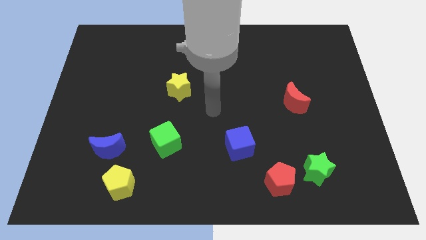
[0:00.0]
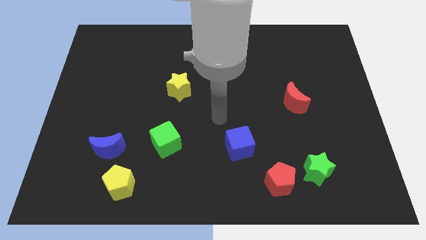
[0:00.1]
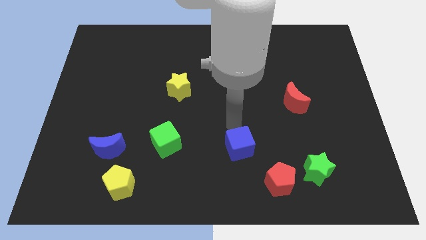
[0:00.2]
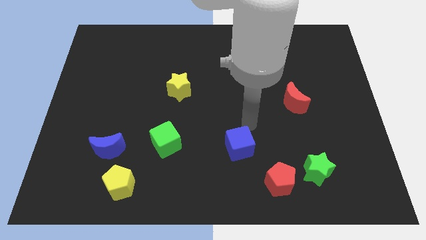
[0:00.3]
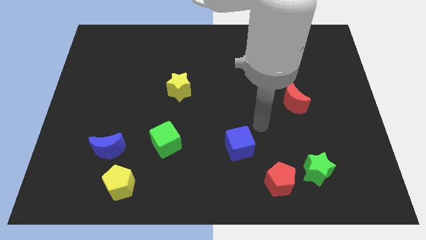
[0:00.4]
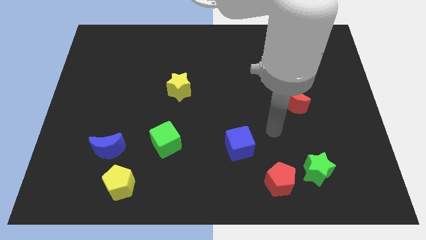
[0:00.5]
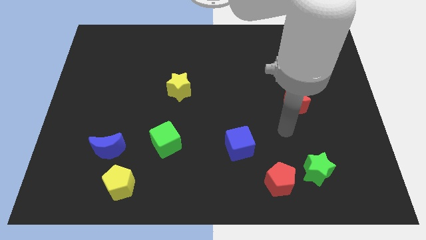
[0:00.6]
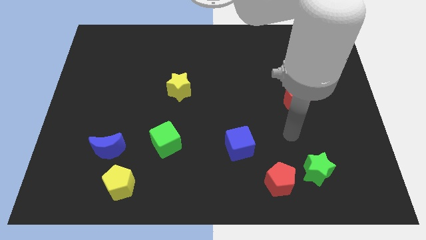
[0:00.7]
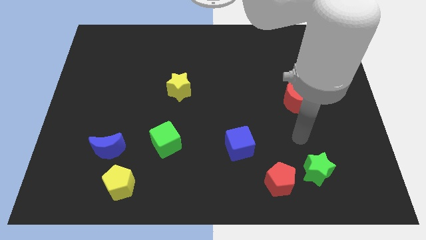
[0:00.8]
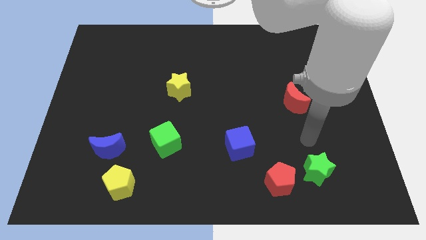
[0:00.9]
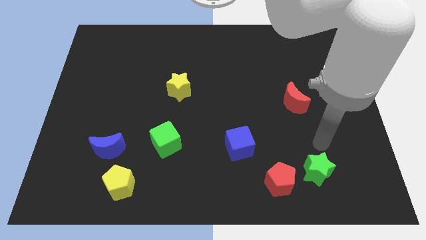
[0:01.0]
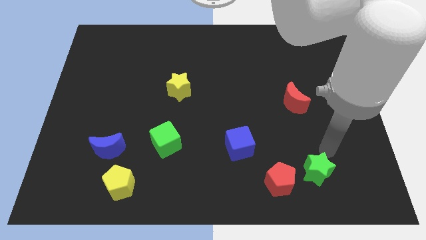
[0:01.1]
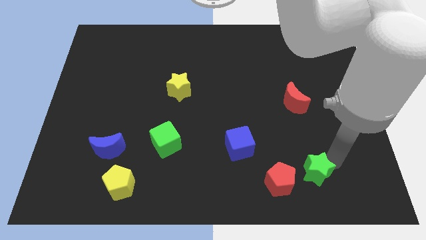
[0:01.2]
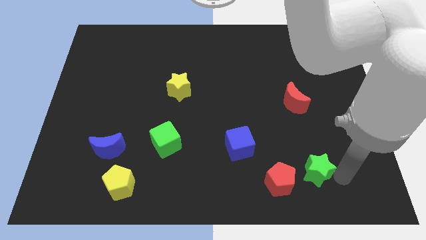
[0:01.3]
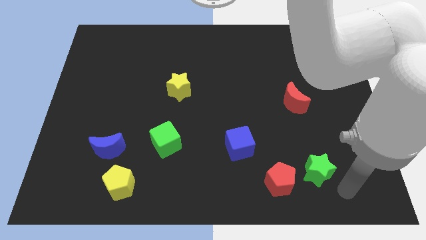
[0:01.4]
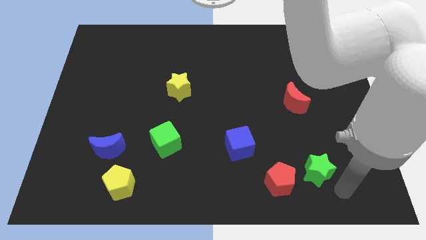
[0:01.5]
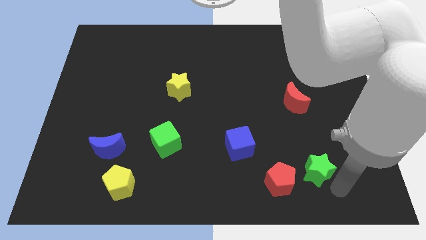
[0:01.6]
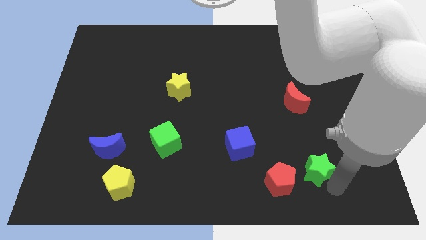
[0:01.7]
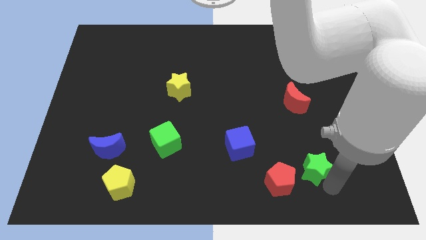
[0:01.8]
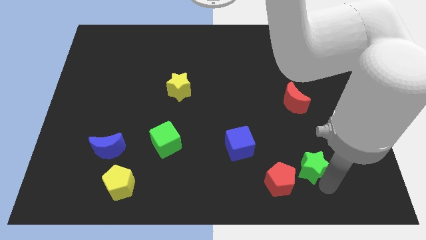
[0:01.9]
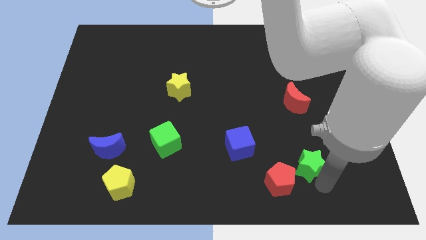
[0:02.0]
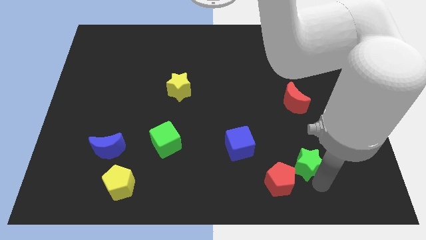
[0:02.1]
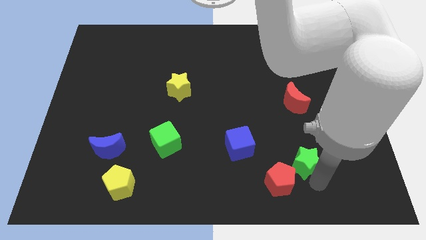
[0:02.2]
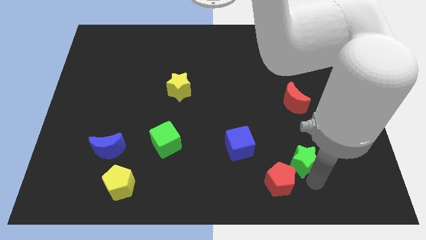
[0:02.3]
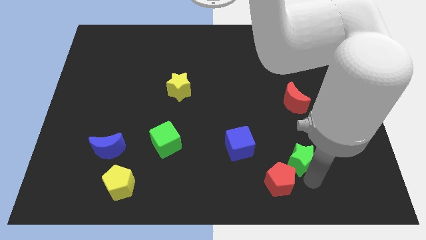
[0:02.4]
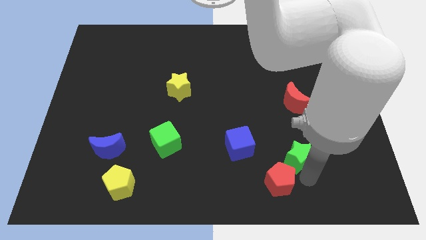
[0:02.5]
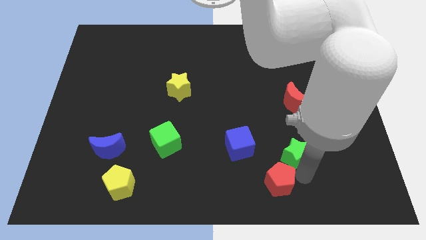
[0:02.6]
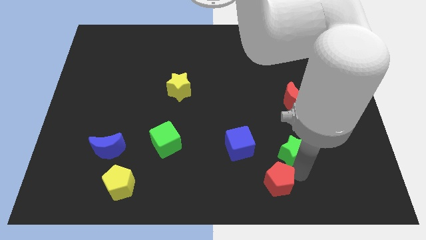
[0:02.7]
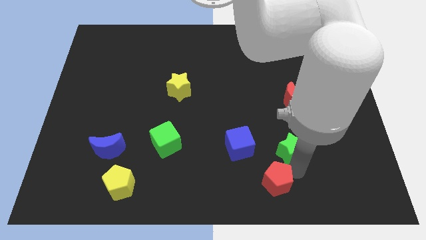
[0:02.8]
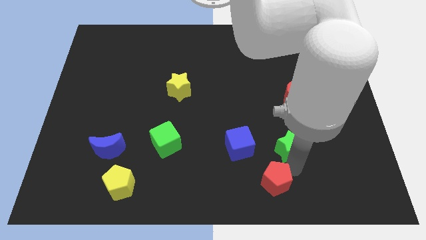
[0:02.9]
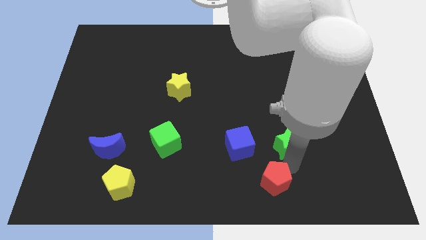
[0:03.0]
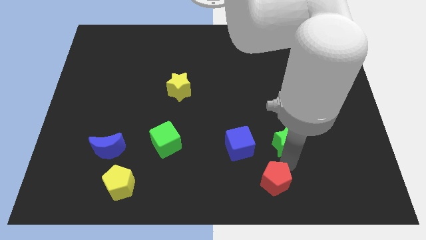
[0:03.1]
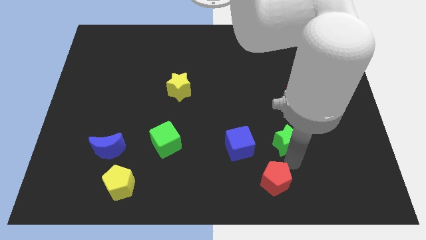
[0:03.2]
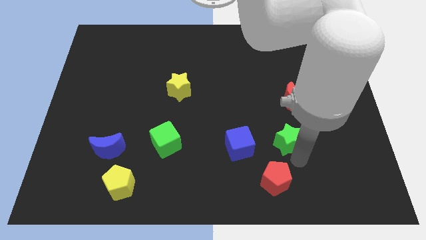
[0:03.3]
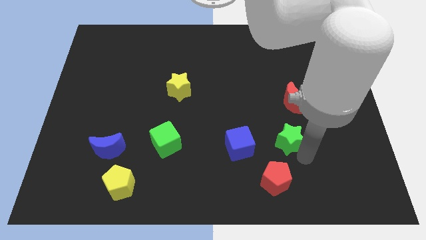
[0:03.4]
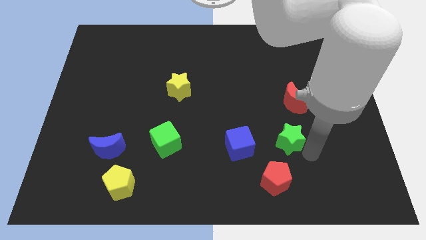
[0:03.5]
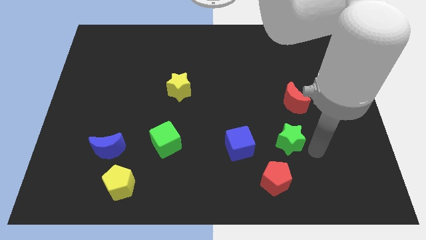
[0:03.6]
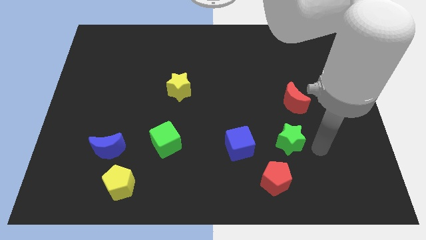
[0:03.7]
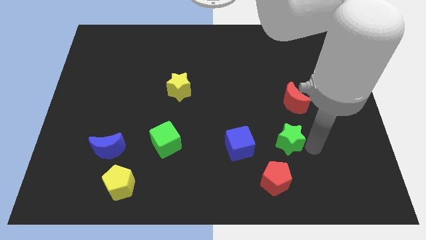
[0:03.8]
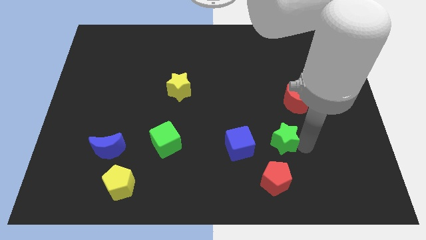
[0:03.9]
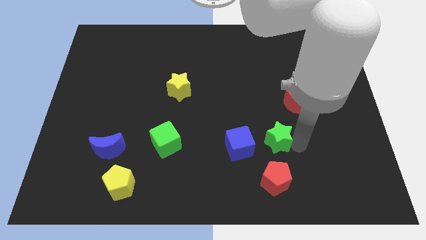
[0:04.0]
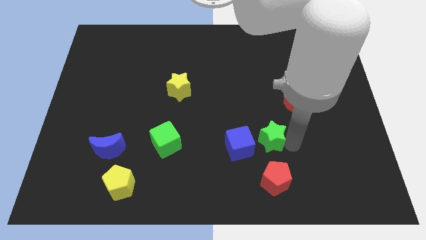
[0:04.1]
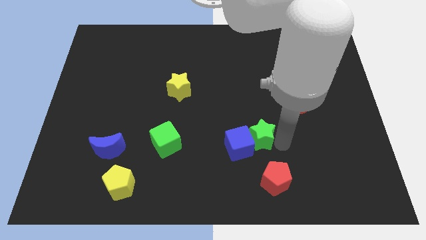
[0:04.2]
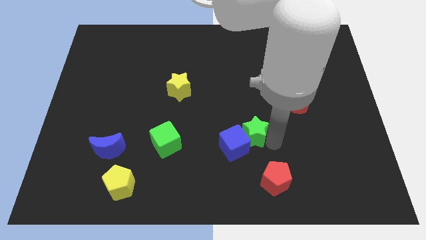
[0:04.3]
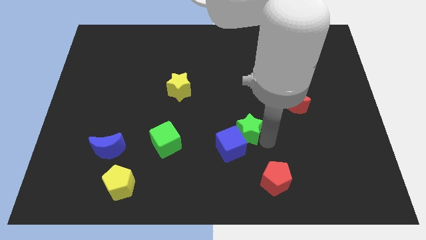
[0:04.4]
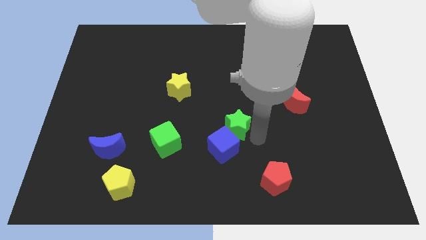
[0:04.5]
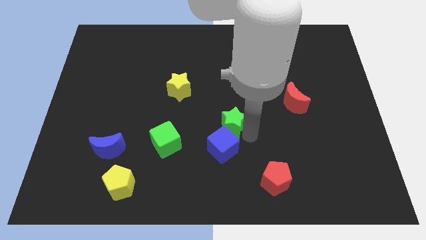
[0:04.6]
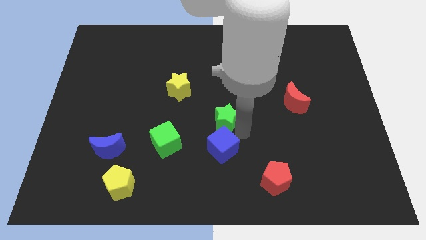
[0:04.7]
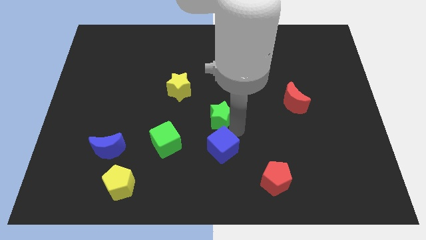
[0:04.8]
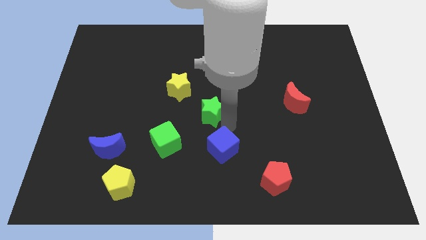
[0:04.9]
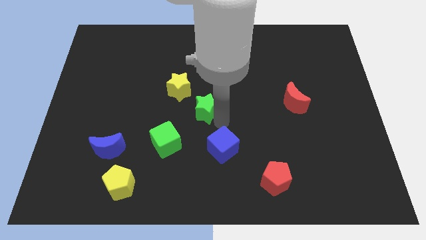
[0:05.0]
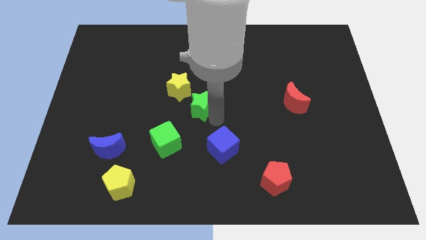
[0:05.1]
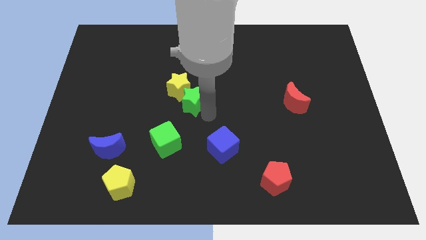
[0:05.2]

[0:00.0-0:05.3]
move the green star next to the yellow star

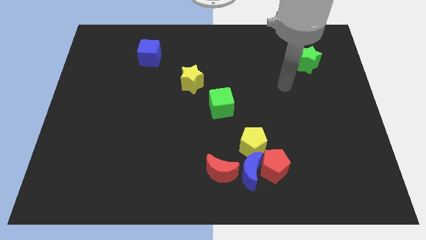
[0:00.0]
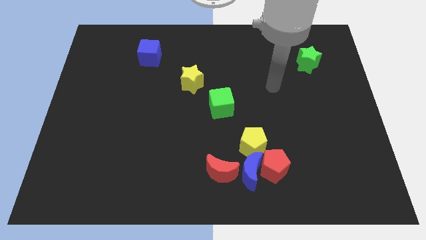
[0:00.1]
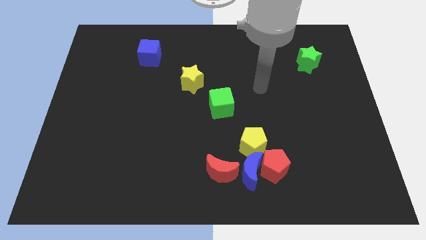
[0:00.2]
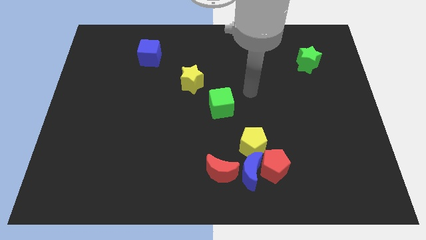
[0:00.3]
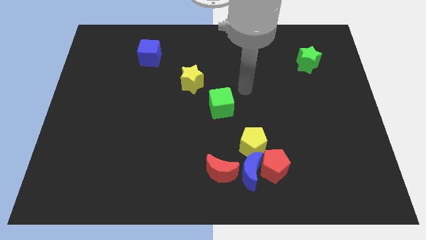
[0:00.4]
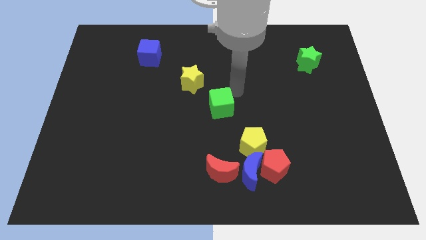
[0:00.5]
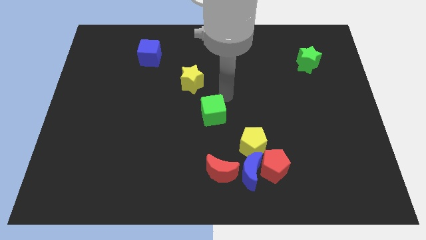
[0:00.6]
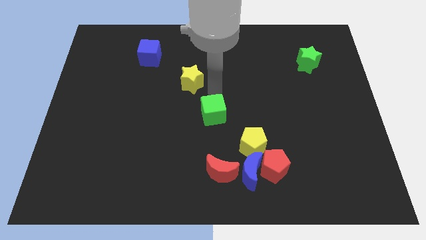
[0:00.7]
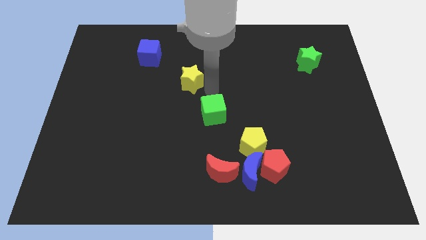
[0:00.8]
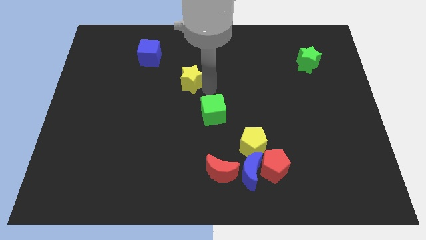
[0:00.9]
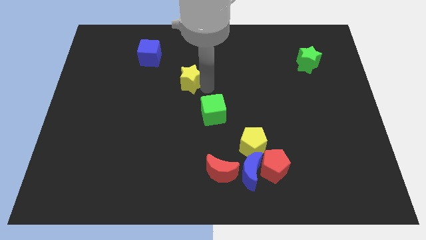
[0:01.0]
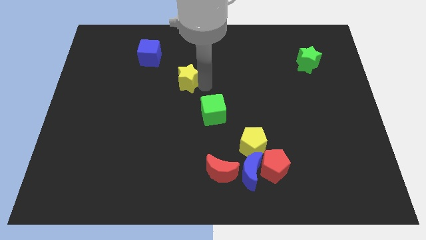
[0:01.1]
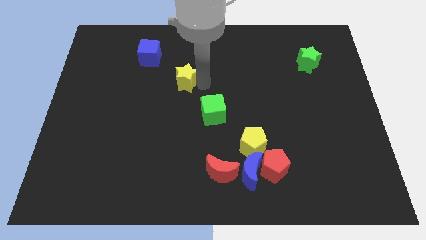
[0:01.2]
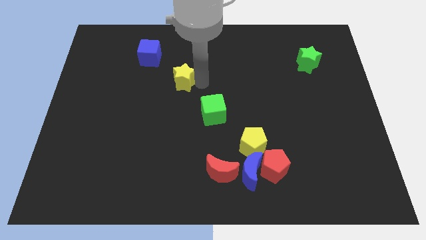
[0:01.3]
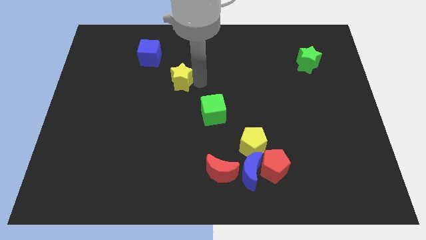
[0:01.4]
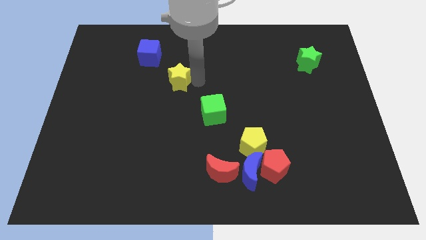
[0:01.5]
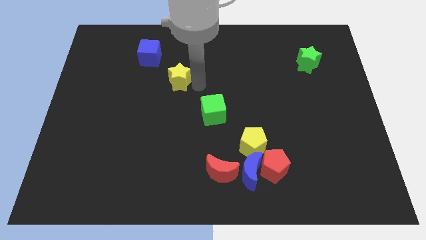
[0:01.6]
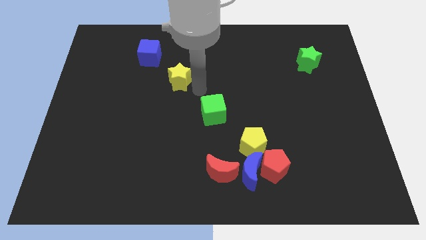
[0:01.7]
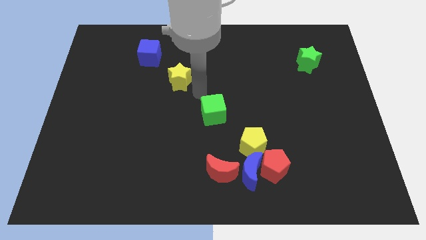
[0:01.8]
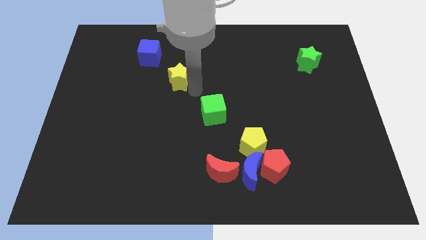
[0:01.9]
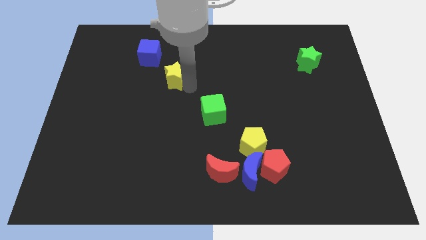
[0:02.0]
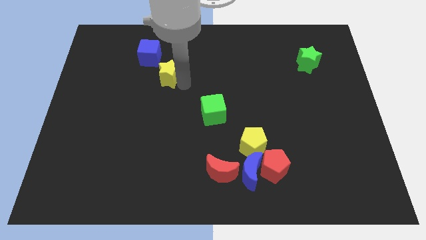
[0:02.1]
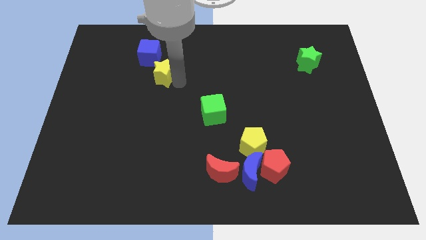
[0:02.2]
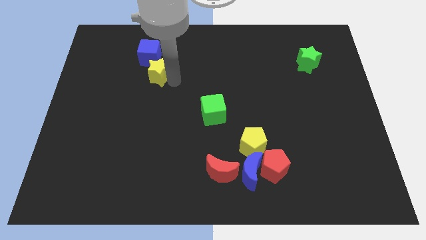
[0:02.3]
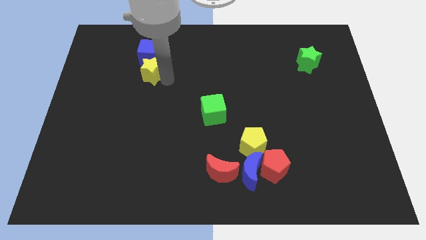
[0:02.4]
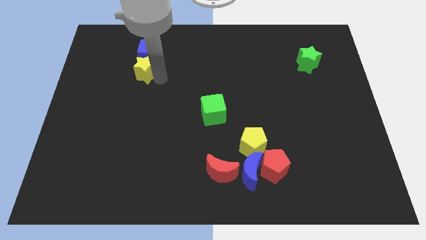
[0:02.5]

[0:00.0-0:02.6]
put the yellow star next to the blue cube
